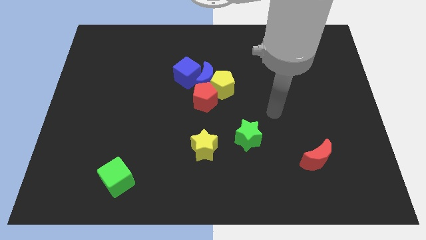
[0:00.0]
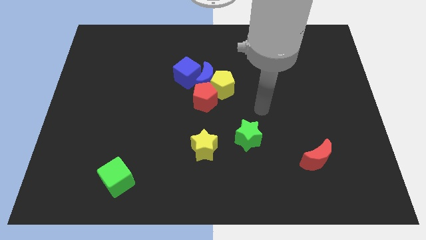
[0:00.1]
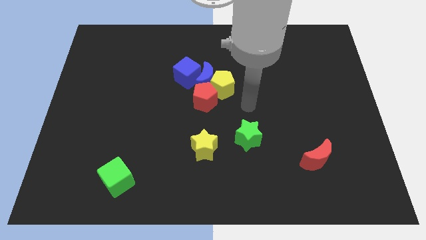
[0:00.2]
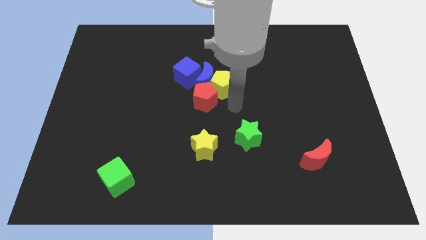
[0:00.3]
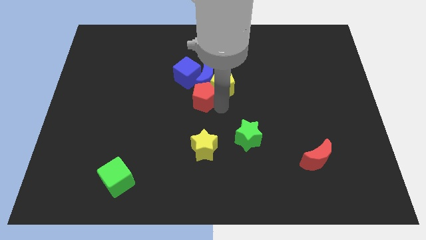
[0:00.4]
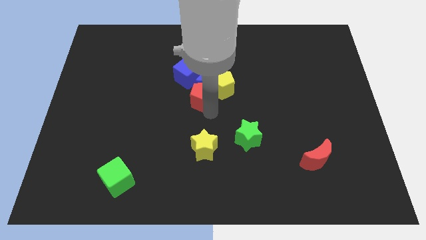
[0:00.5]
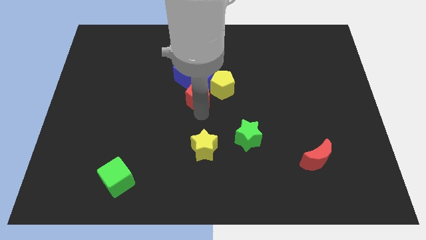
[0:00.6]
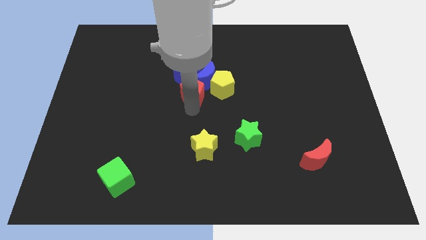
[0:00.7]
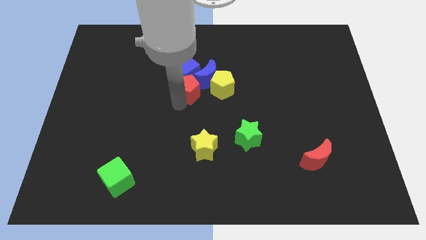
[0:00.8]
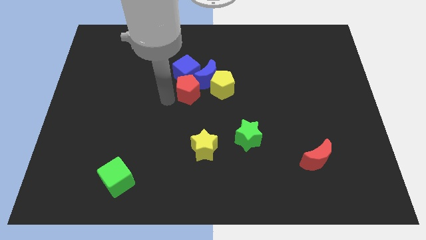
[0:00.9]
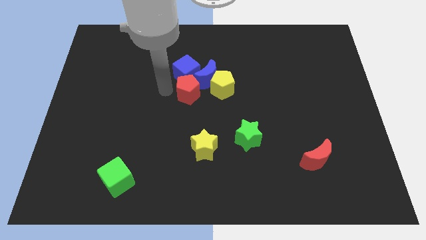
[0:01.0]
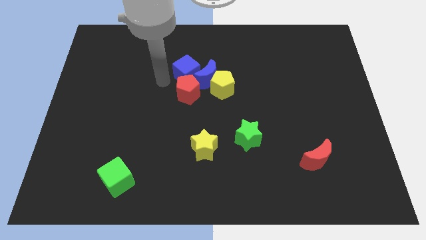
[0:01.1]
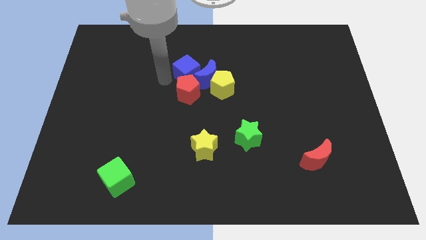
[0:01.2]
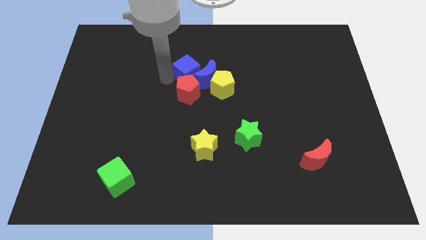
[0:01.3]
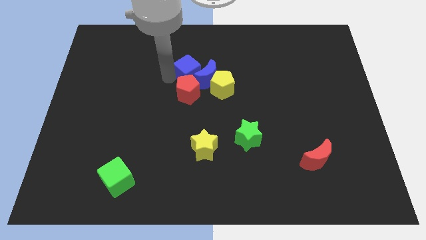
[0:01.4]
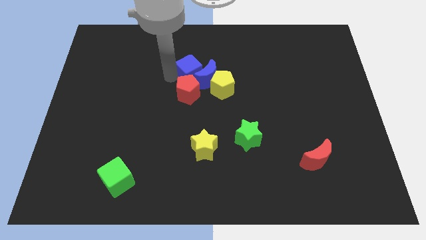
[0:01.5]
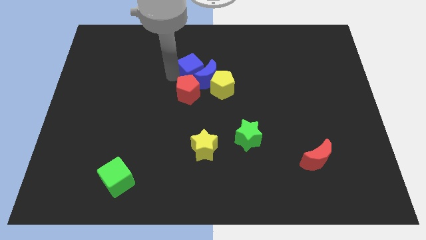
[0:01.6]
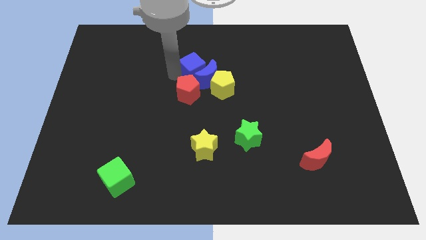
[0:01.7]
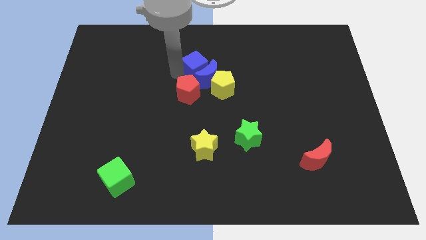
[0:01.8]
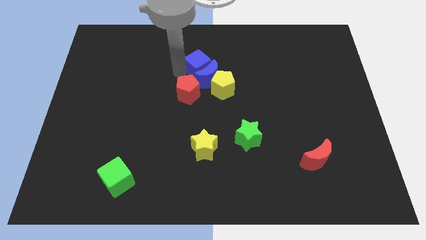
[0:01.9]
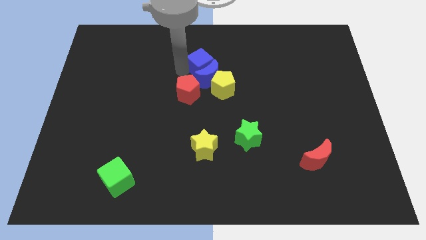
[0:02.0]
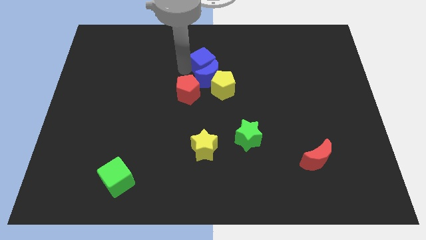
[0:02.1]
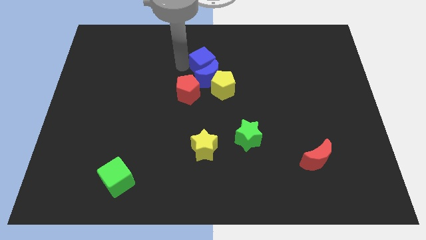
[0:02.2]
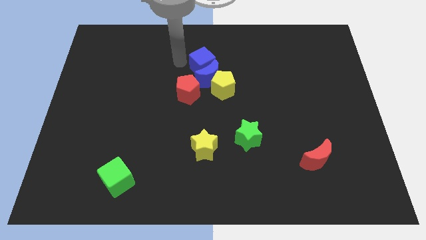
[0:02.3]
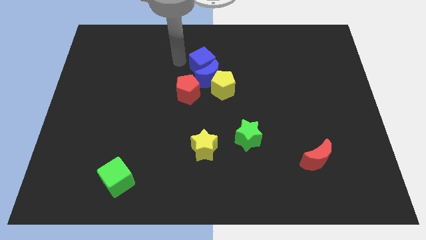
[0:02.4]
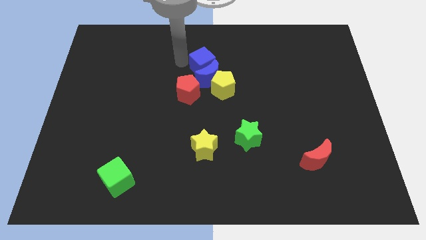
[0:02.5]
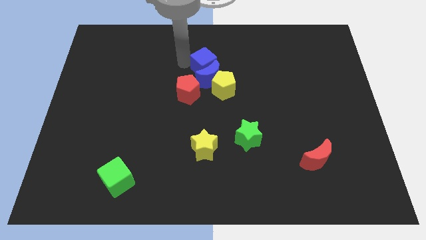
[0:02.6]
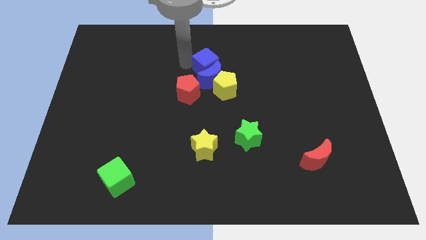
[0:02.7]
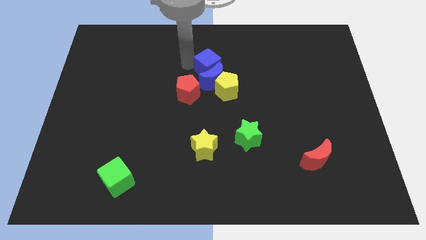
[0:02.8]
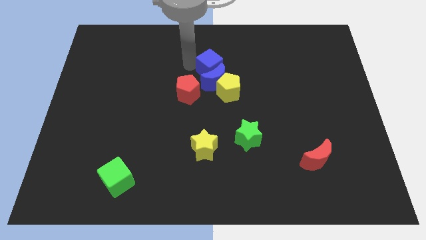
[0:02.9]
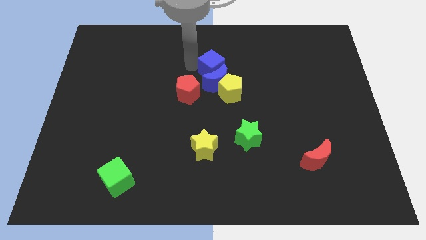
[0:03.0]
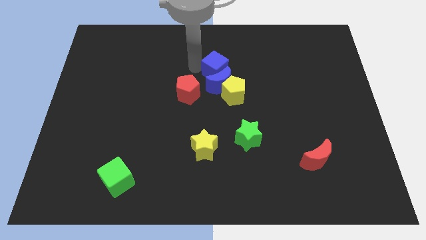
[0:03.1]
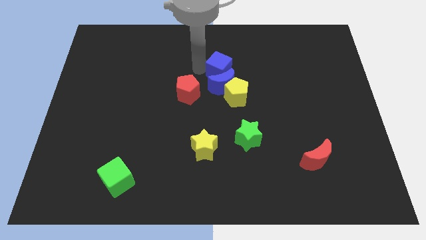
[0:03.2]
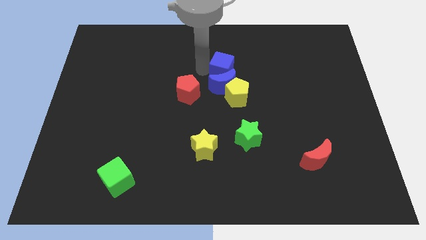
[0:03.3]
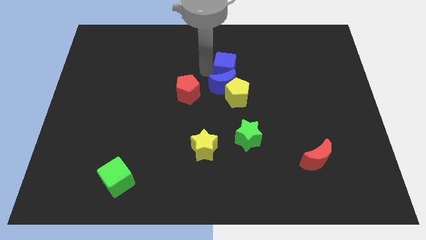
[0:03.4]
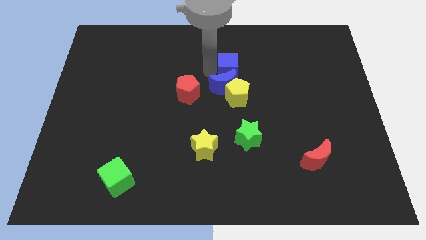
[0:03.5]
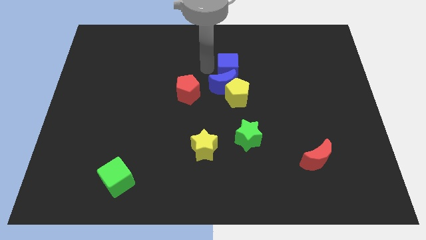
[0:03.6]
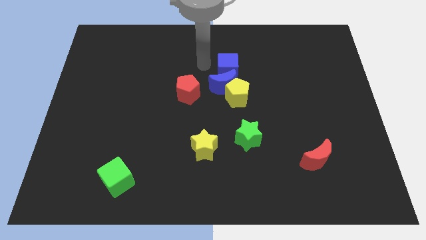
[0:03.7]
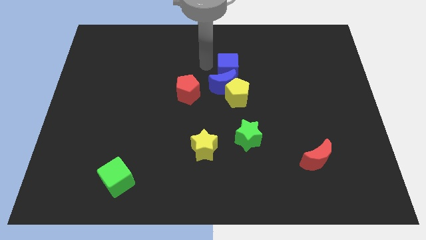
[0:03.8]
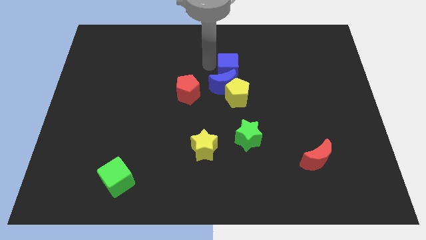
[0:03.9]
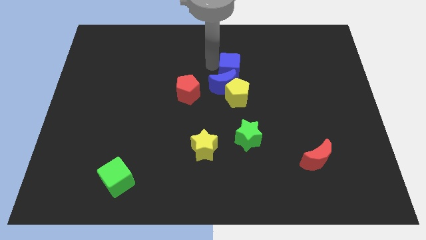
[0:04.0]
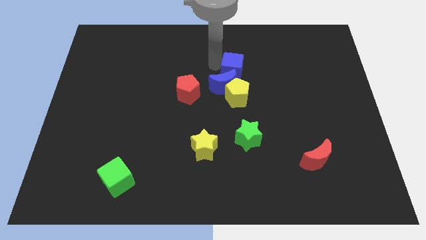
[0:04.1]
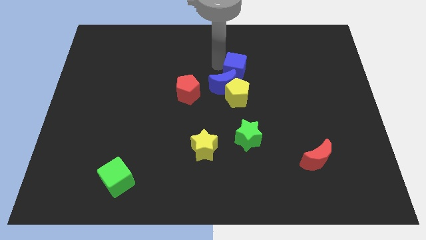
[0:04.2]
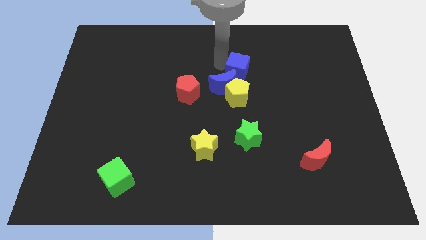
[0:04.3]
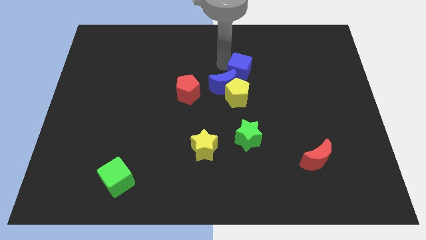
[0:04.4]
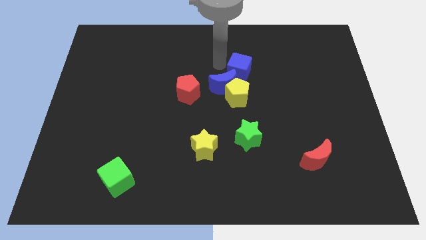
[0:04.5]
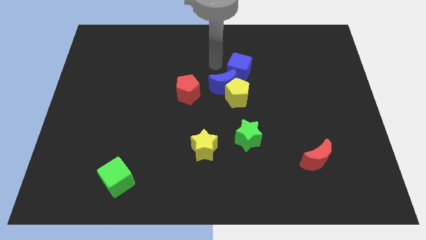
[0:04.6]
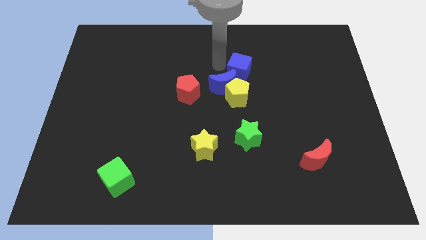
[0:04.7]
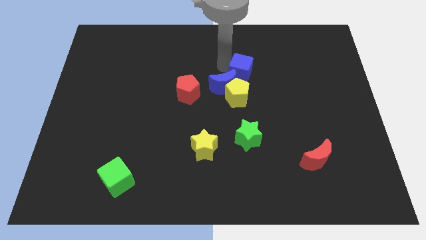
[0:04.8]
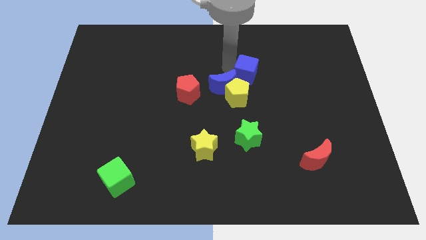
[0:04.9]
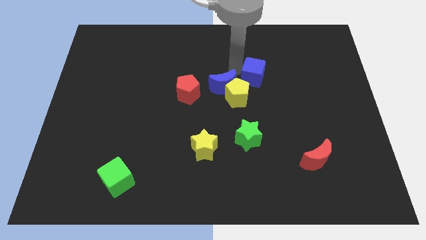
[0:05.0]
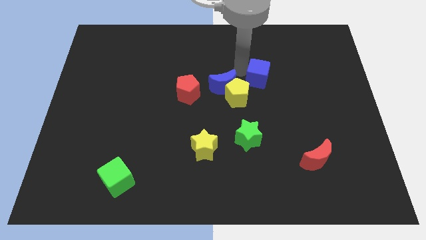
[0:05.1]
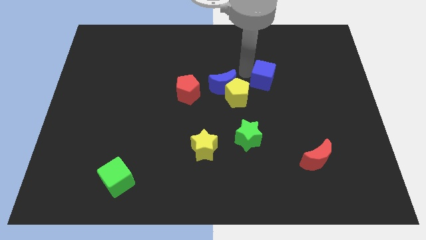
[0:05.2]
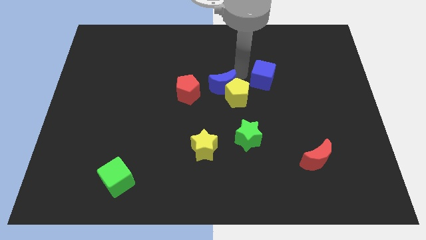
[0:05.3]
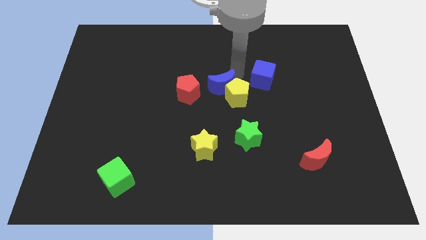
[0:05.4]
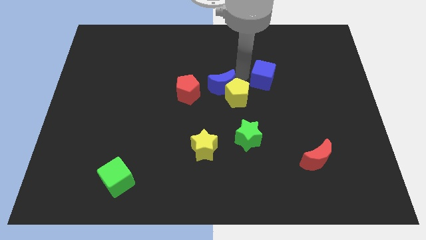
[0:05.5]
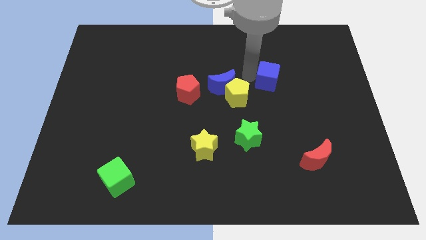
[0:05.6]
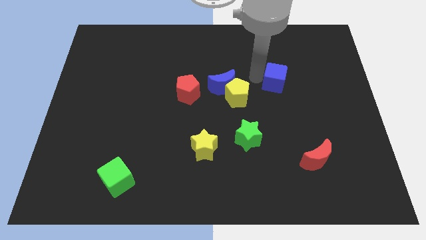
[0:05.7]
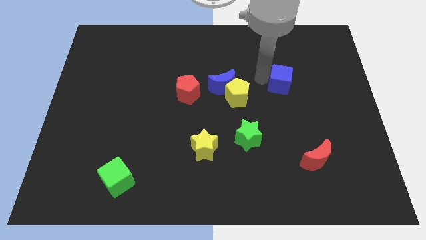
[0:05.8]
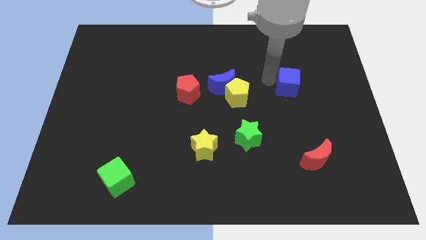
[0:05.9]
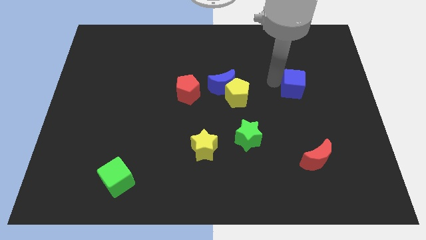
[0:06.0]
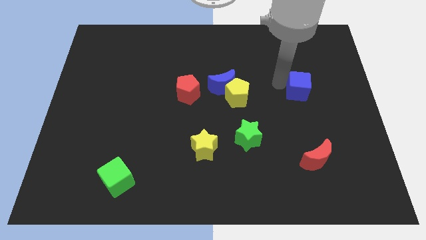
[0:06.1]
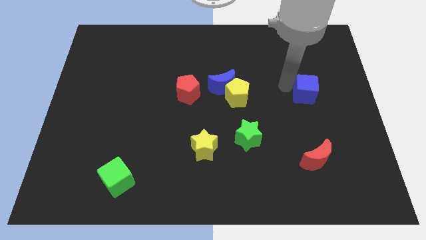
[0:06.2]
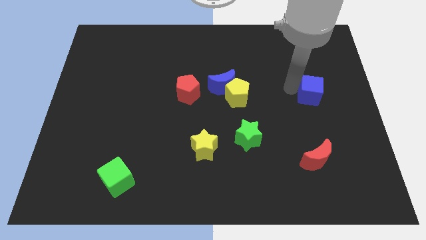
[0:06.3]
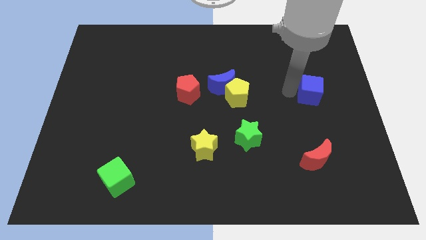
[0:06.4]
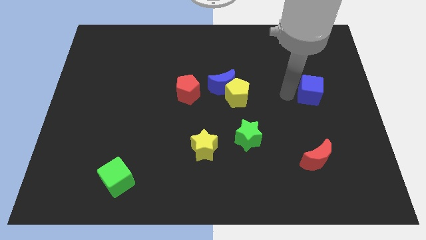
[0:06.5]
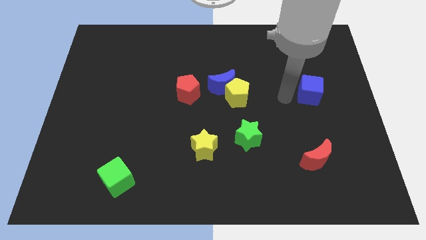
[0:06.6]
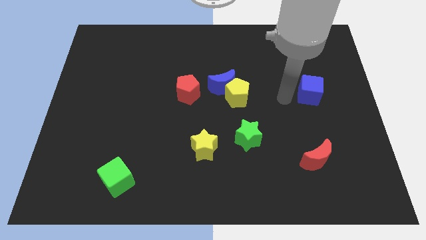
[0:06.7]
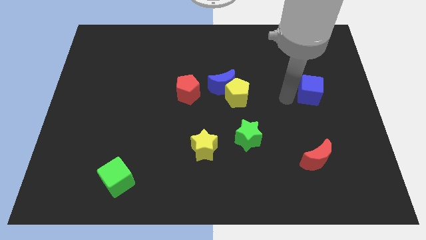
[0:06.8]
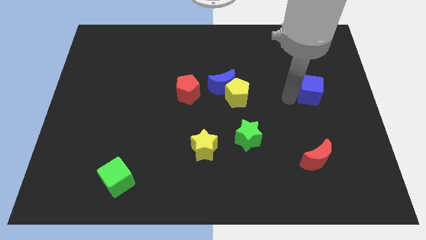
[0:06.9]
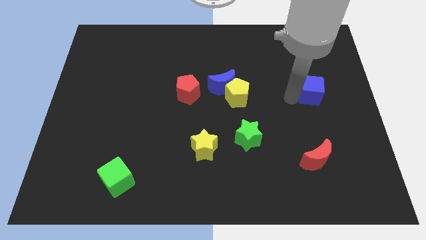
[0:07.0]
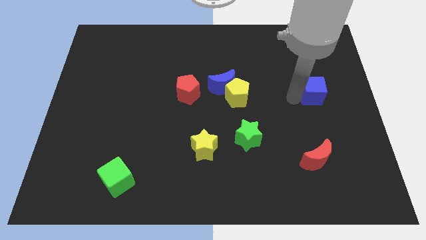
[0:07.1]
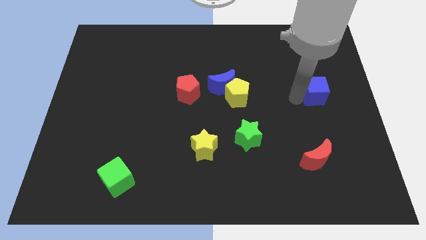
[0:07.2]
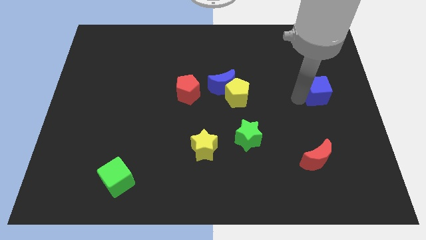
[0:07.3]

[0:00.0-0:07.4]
move the blue cube to the right side of the board
